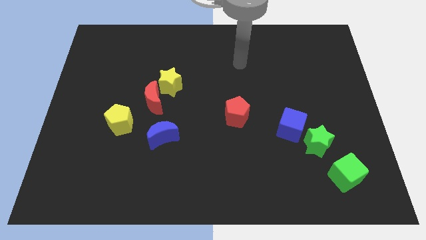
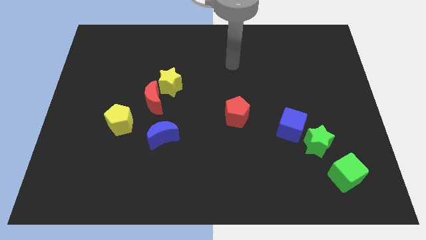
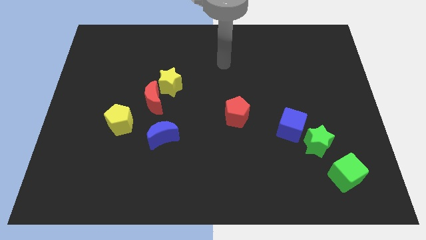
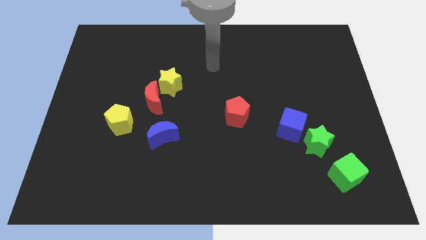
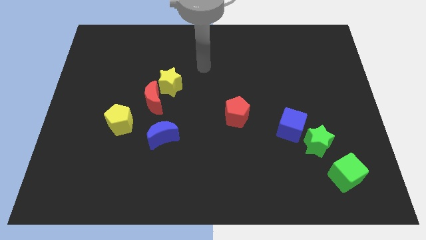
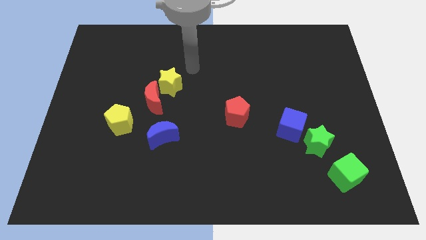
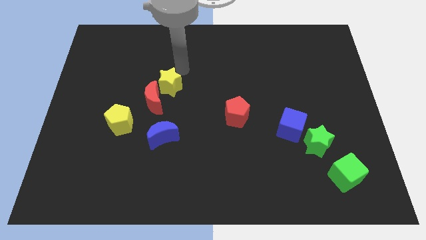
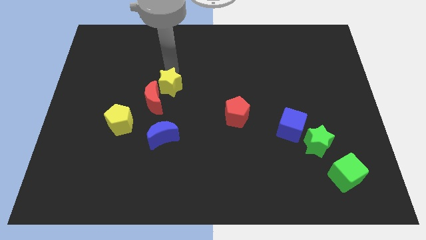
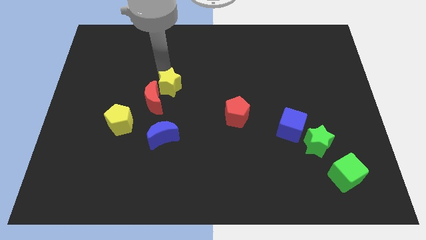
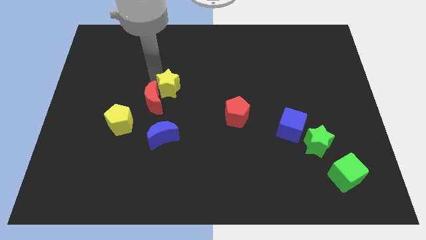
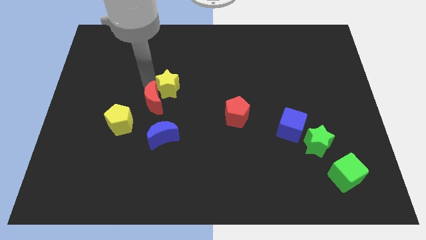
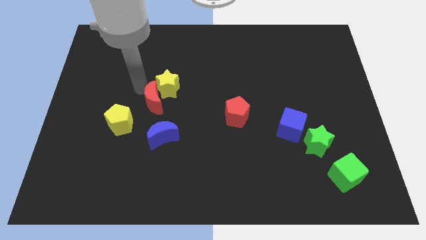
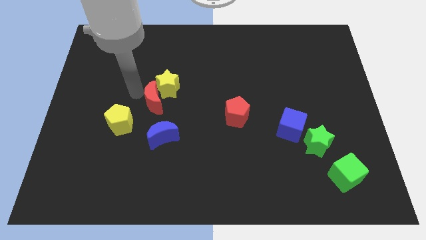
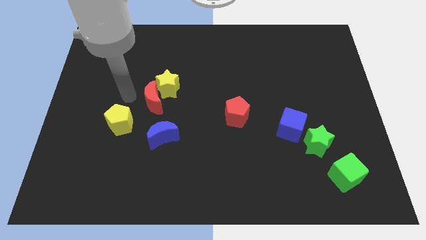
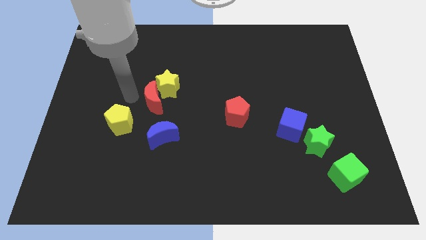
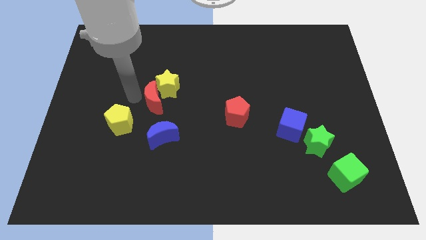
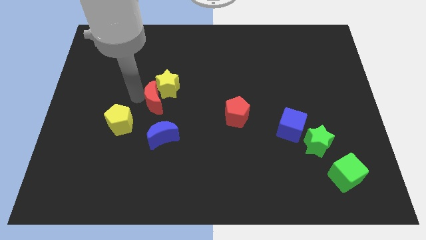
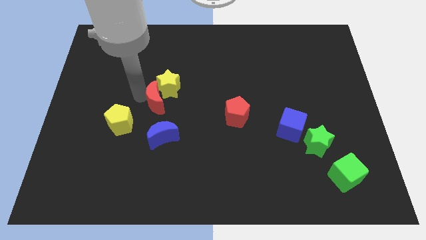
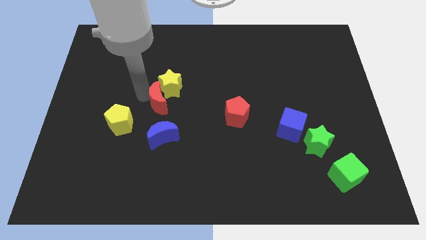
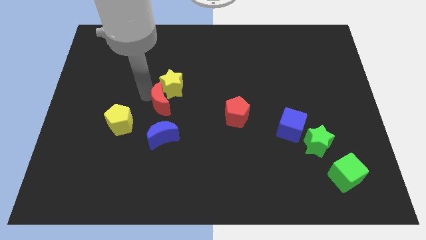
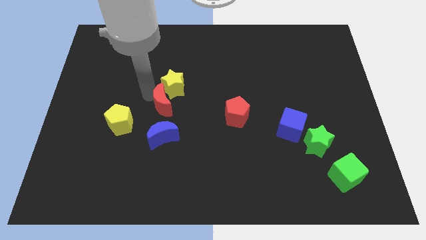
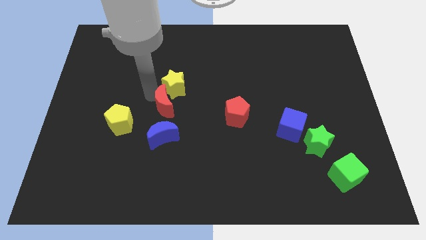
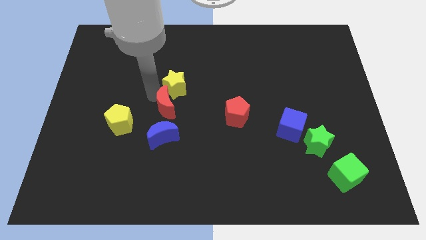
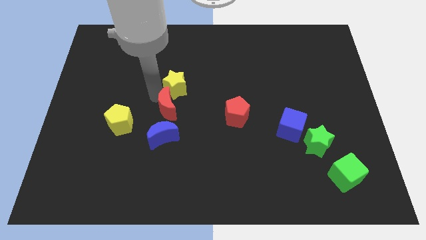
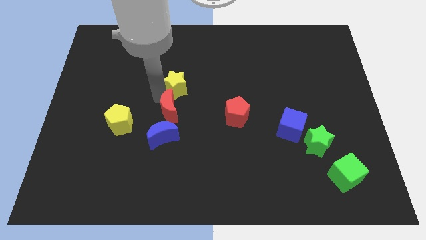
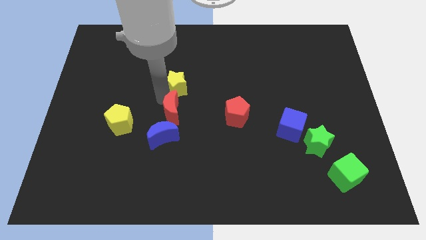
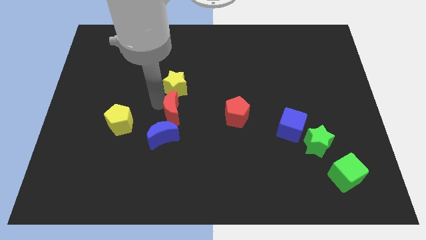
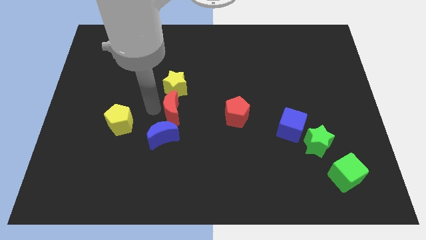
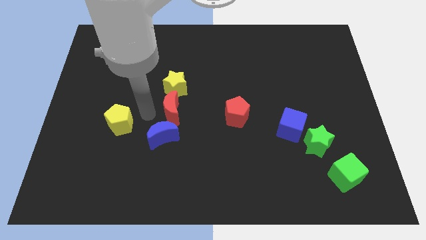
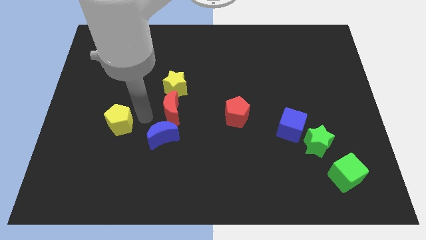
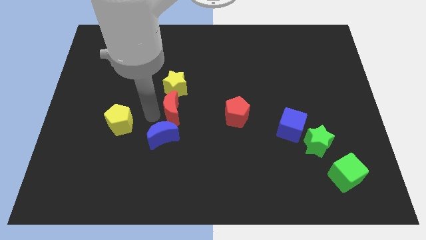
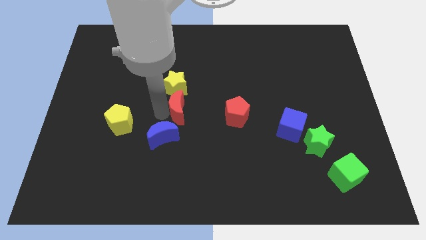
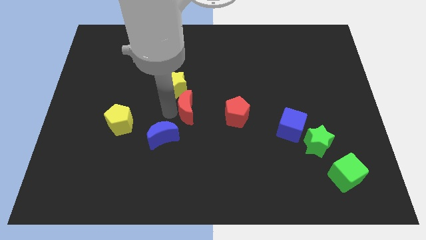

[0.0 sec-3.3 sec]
slide the red moon right slightly

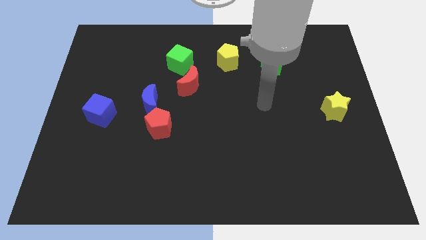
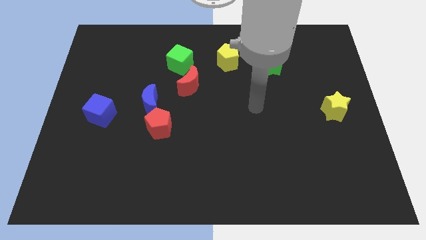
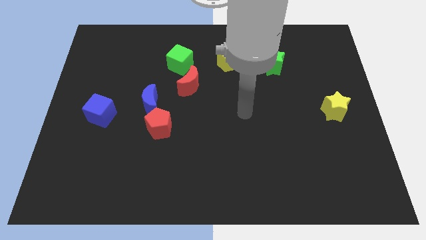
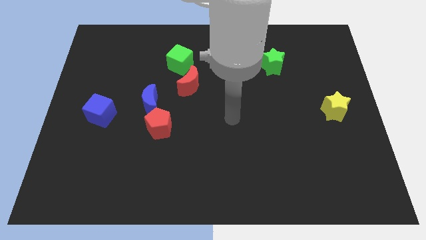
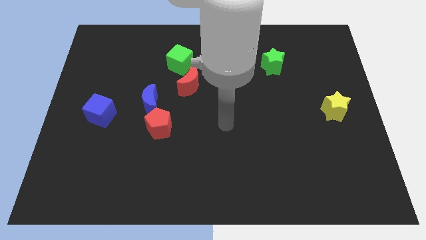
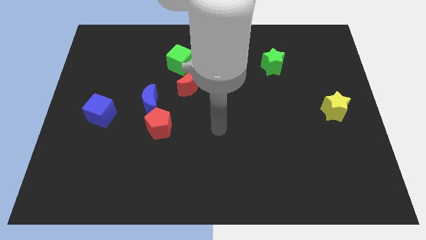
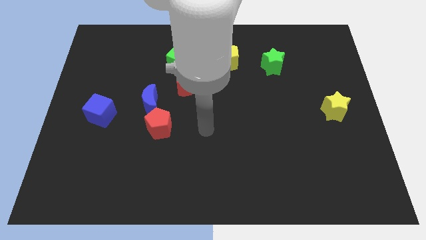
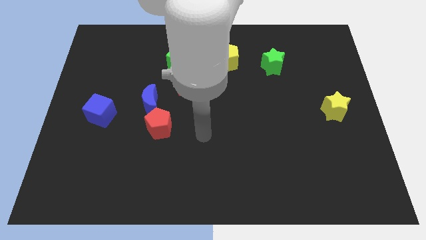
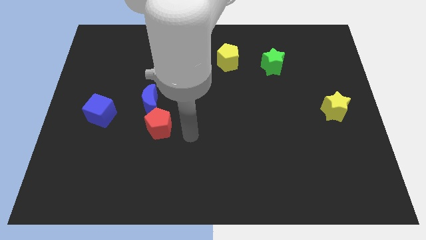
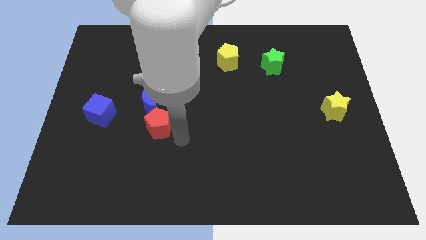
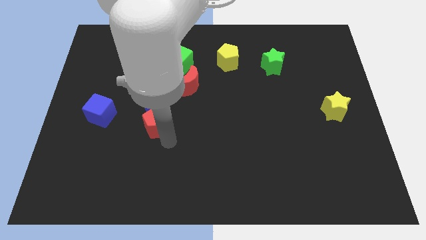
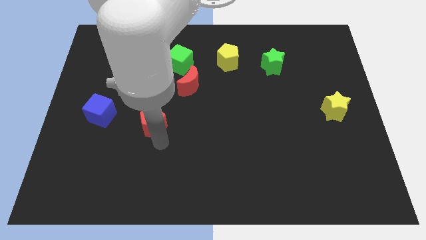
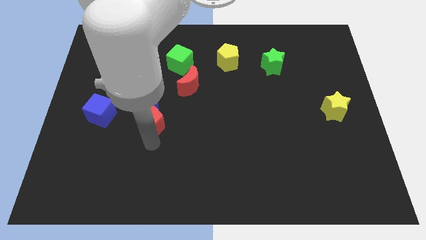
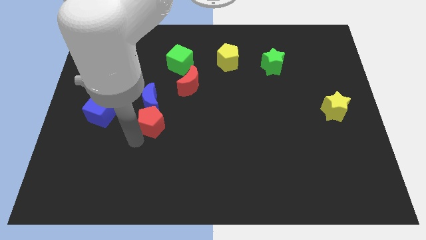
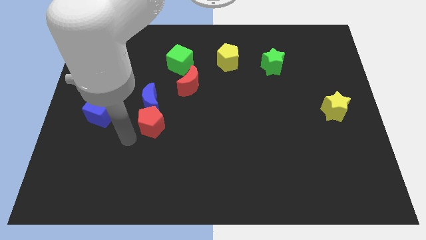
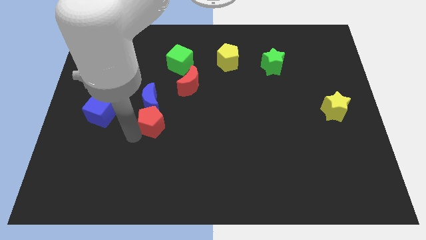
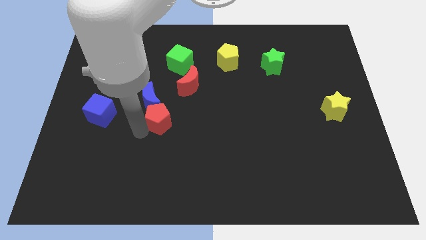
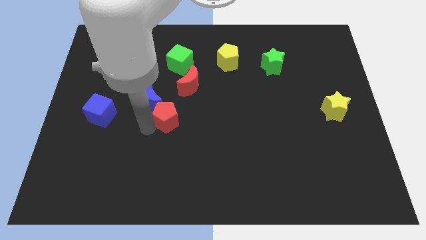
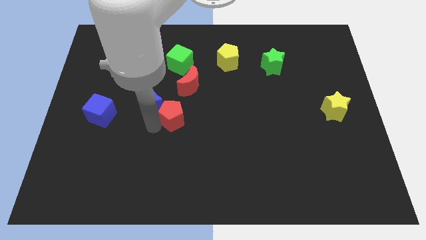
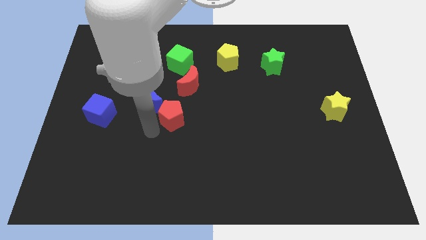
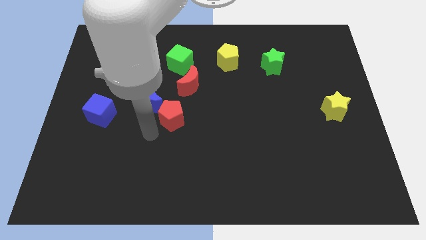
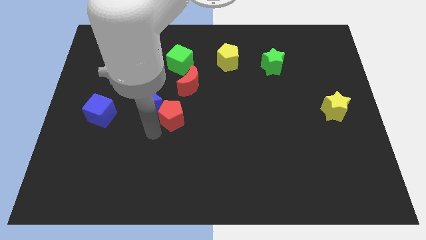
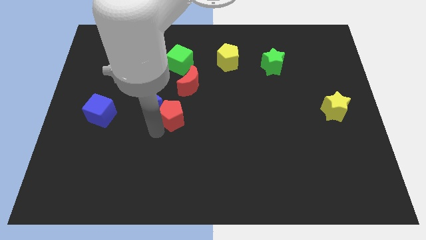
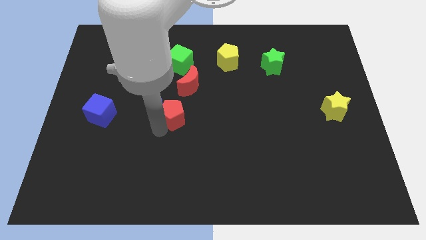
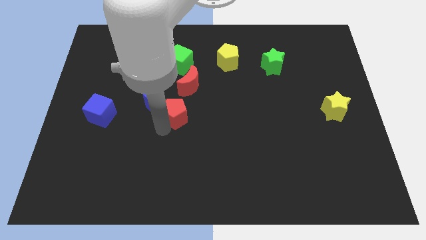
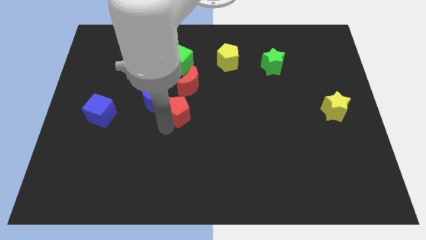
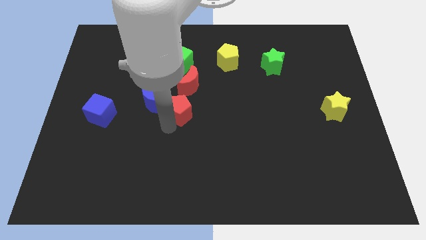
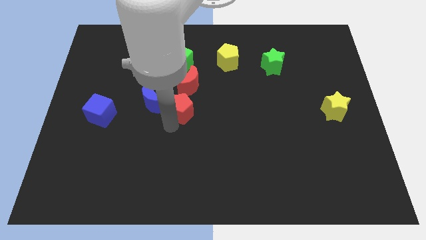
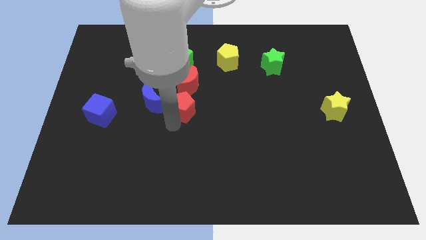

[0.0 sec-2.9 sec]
push the red pentagon a bit up and then right

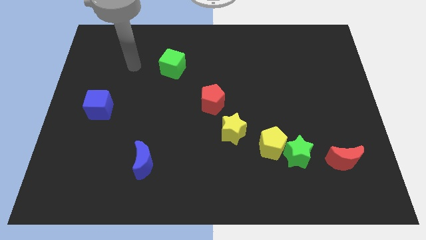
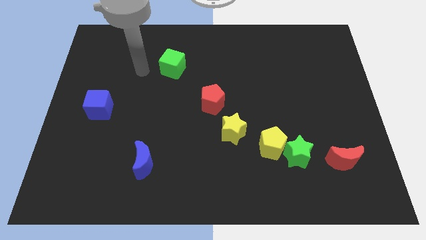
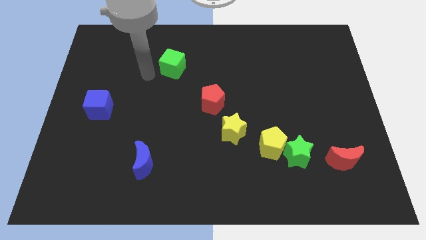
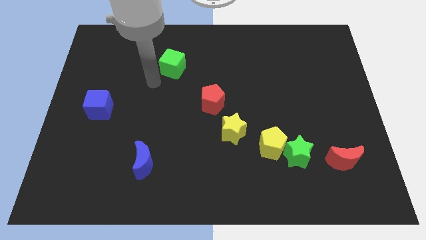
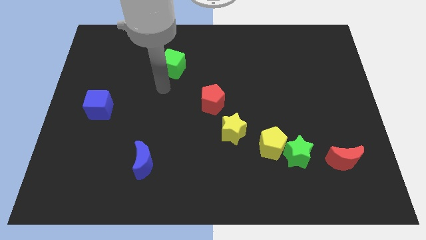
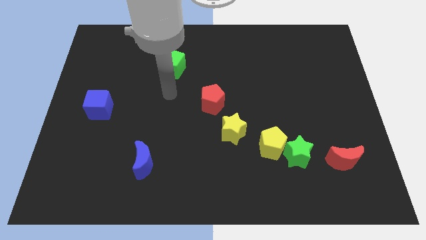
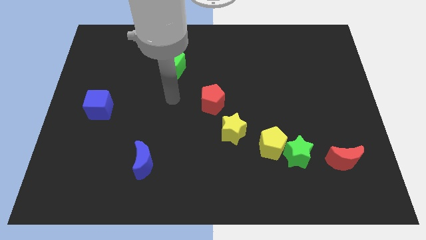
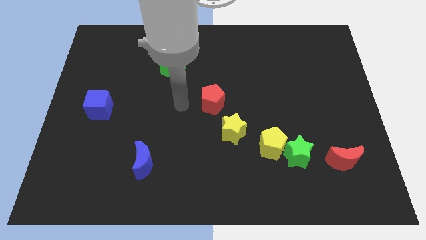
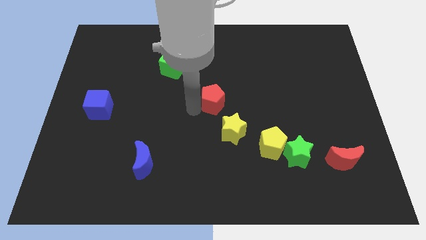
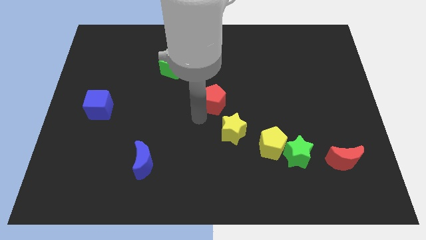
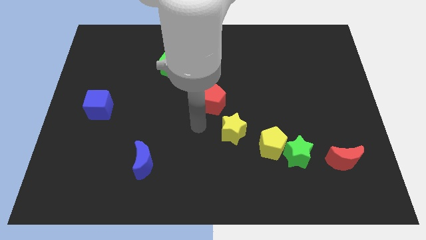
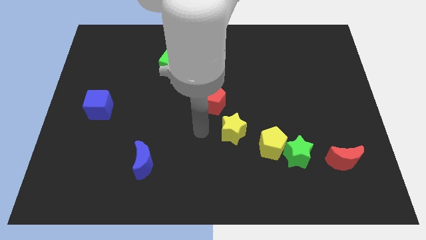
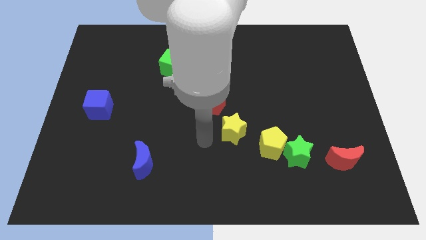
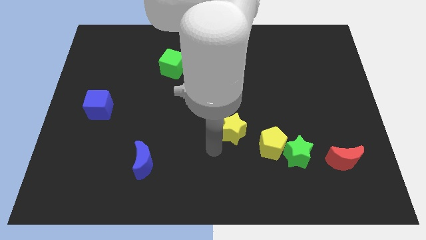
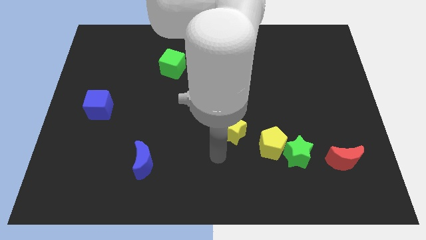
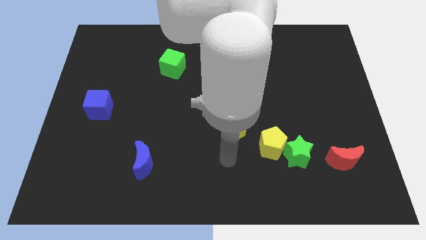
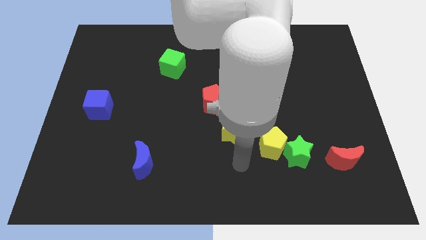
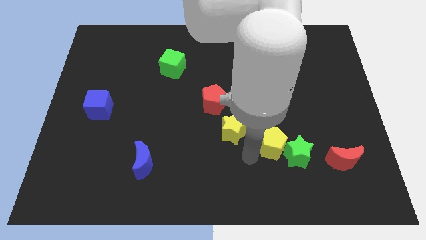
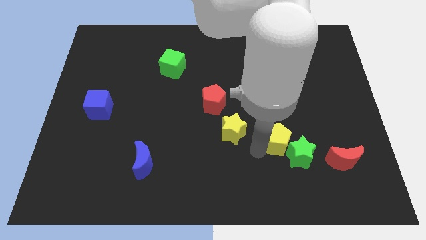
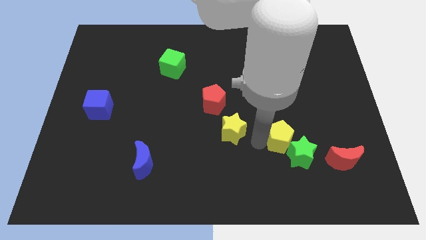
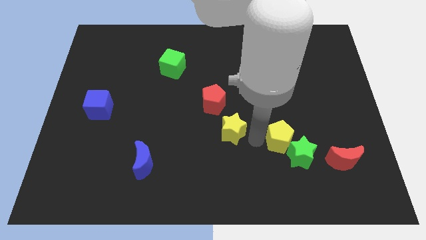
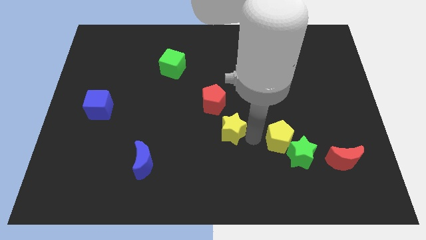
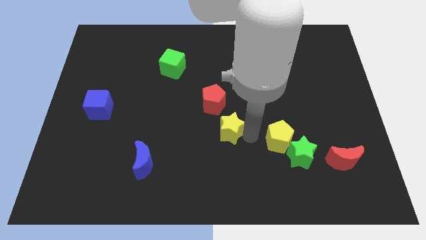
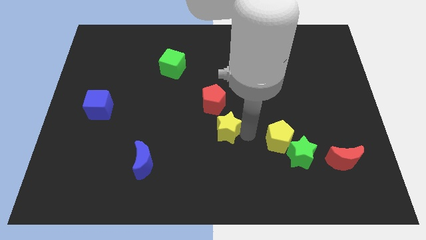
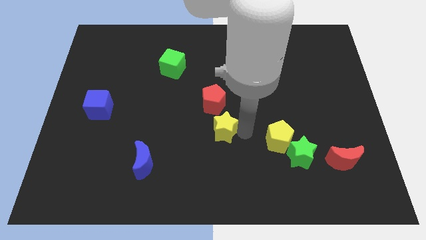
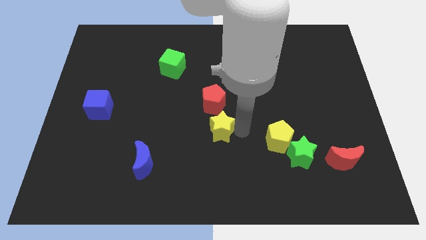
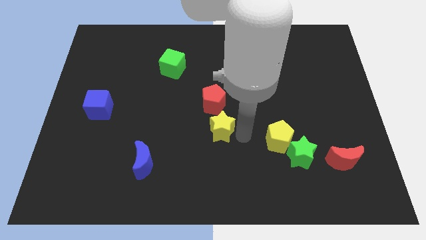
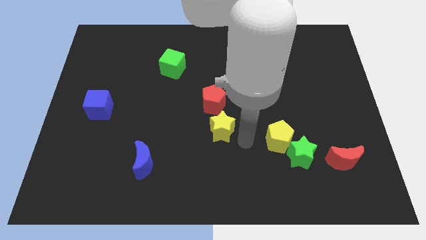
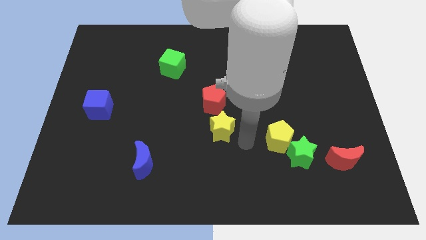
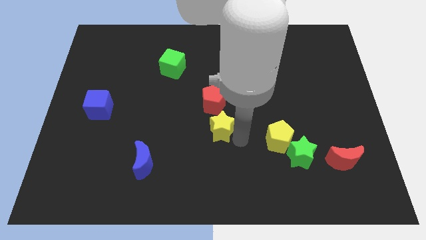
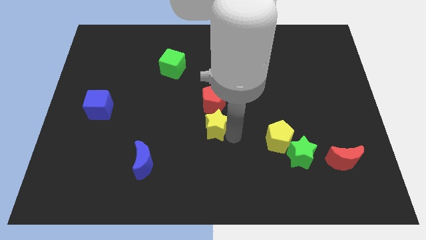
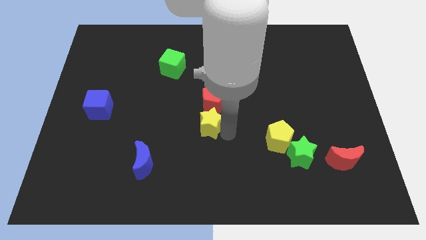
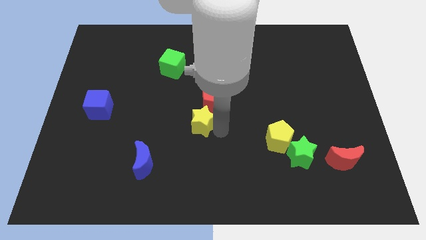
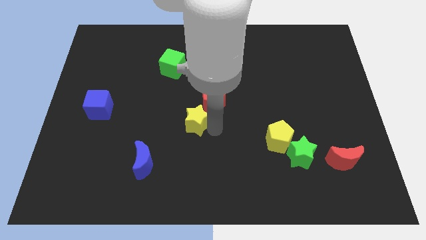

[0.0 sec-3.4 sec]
move the yellow star somewhat up and then left
